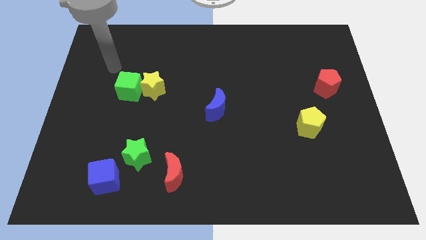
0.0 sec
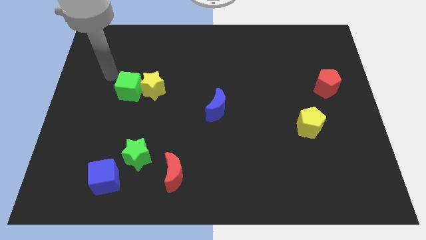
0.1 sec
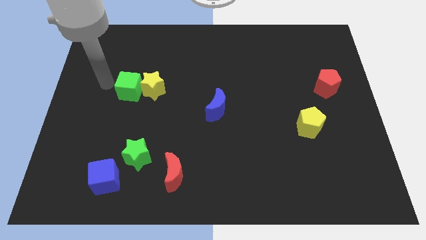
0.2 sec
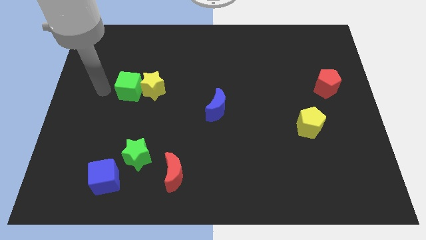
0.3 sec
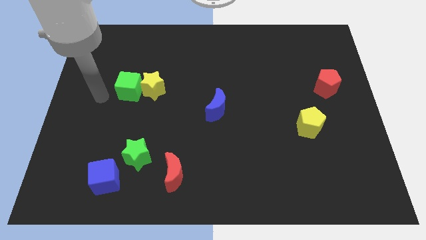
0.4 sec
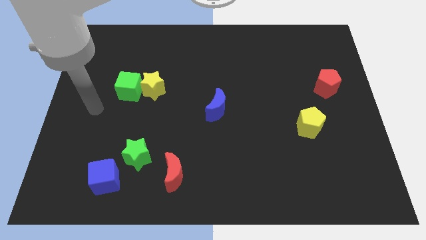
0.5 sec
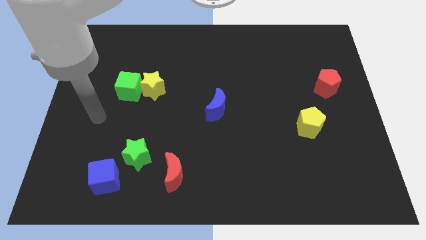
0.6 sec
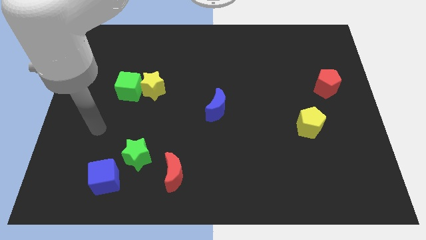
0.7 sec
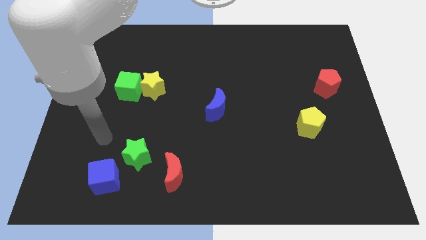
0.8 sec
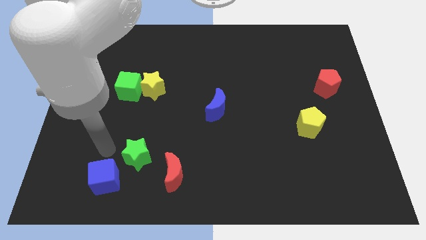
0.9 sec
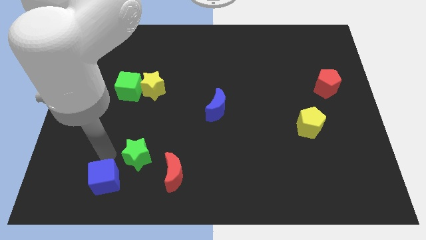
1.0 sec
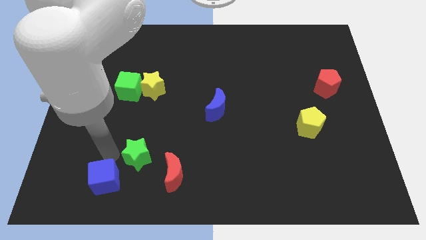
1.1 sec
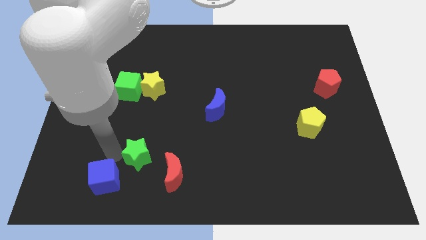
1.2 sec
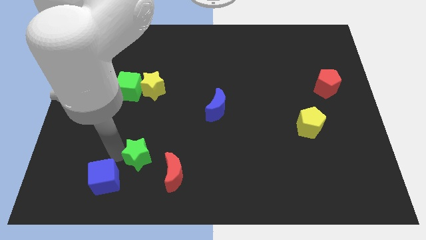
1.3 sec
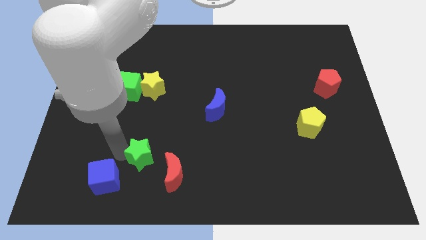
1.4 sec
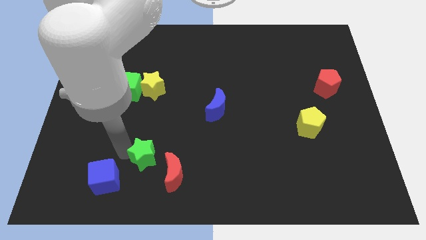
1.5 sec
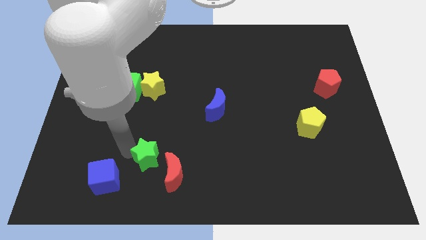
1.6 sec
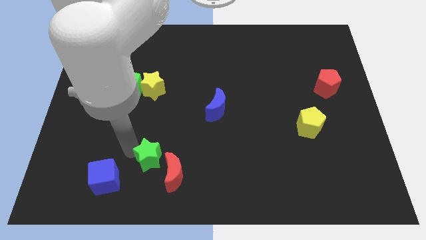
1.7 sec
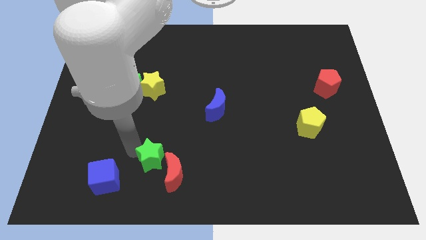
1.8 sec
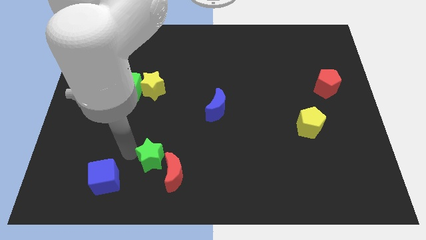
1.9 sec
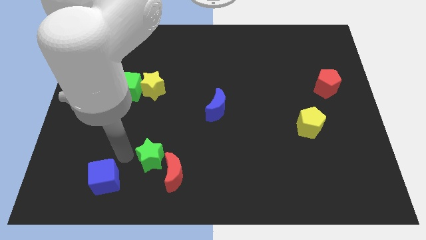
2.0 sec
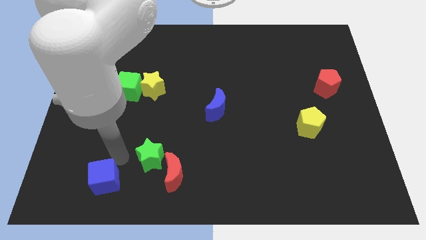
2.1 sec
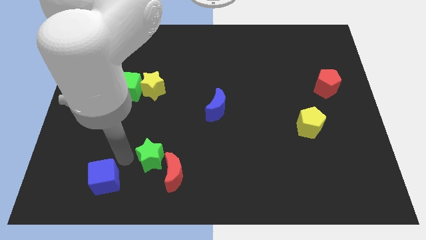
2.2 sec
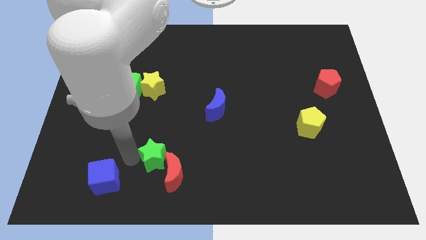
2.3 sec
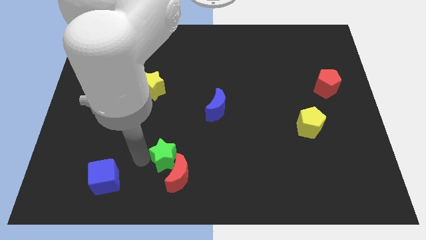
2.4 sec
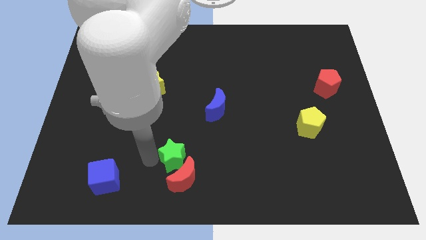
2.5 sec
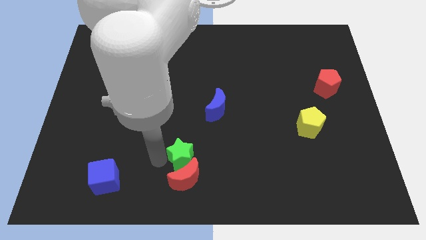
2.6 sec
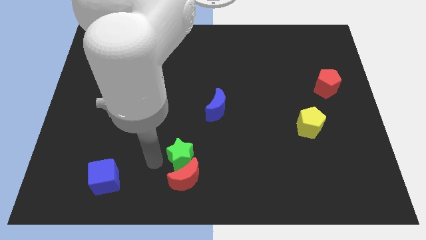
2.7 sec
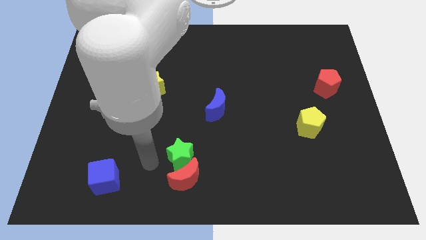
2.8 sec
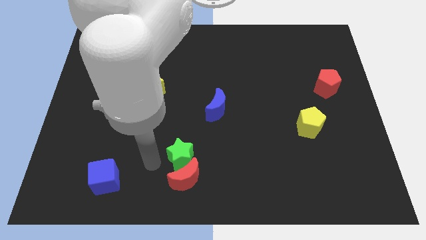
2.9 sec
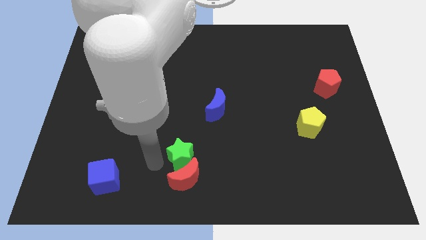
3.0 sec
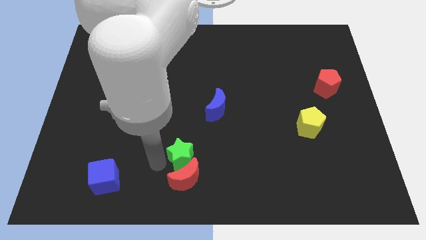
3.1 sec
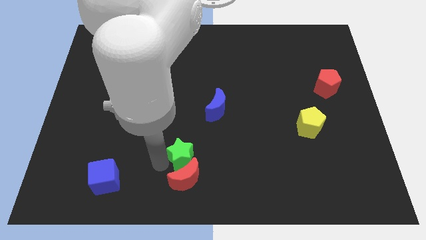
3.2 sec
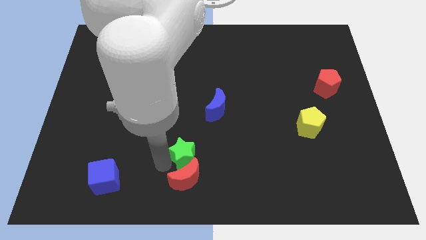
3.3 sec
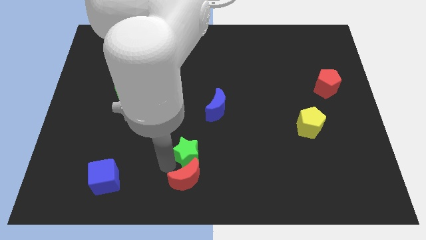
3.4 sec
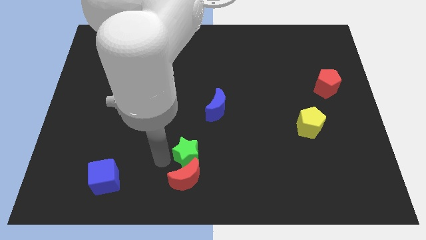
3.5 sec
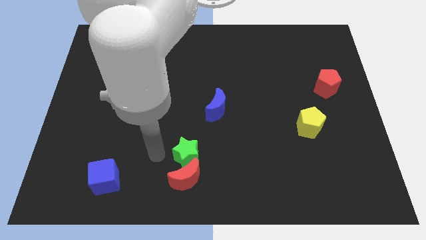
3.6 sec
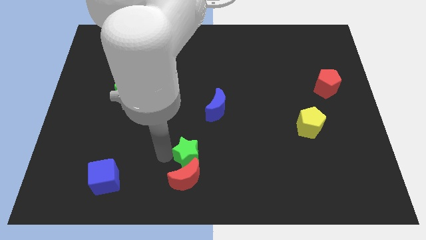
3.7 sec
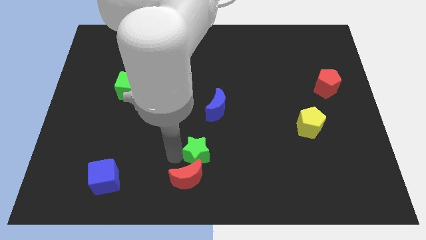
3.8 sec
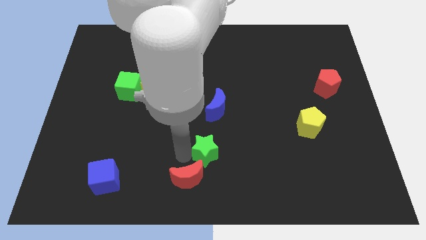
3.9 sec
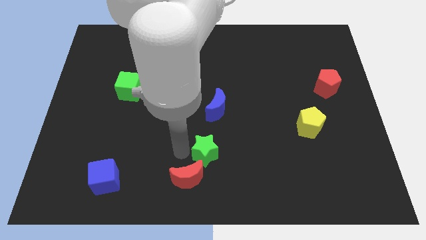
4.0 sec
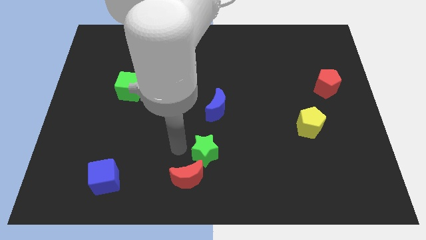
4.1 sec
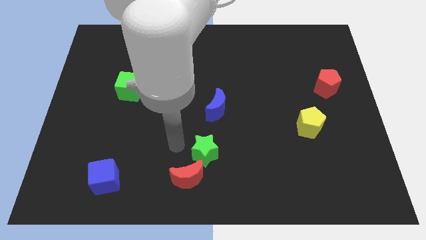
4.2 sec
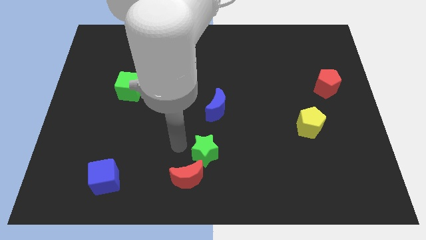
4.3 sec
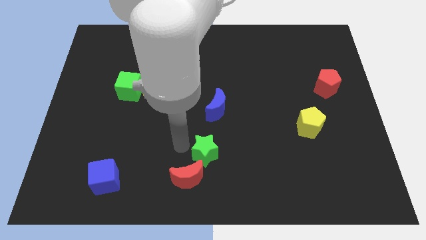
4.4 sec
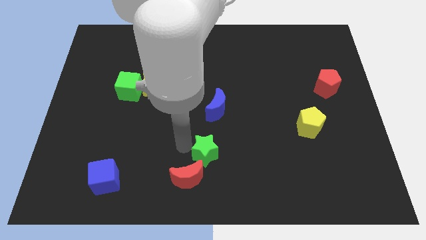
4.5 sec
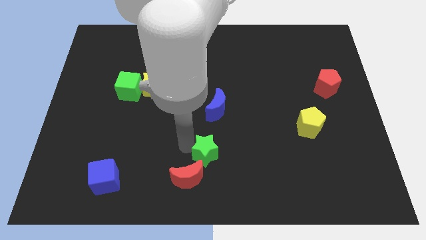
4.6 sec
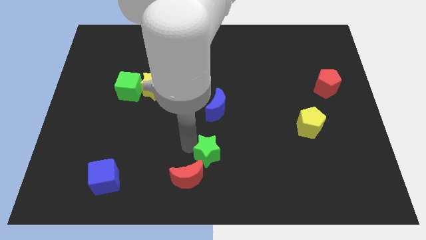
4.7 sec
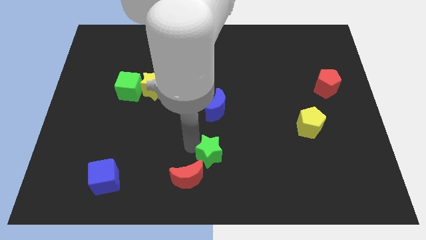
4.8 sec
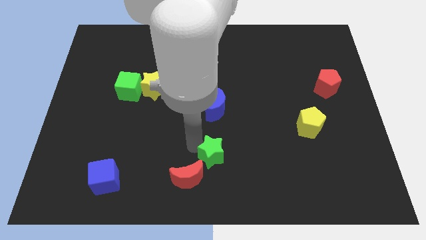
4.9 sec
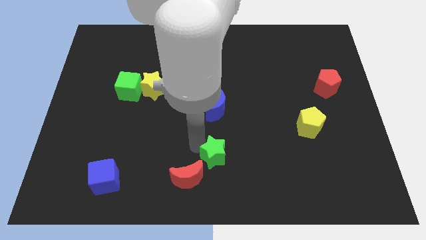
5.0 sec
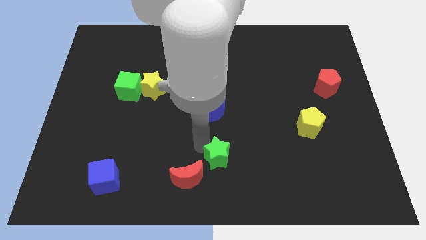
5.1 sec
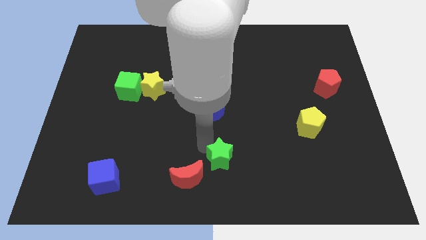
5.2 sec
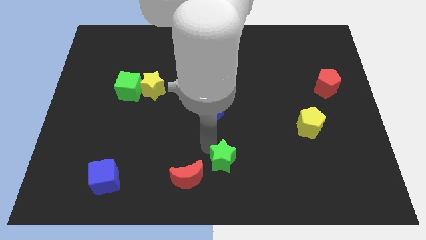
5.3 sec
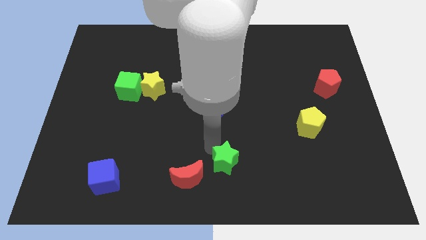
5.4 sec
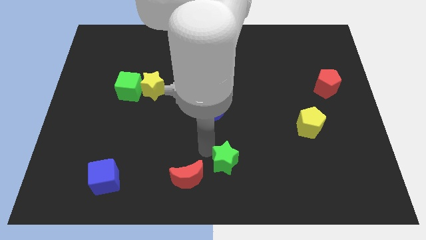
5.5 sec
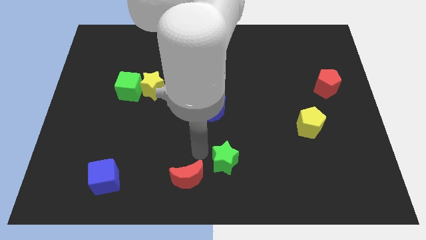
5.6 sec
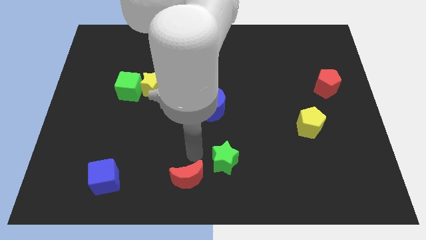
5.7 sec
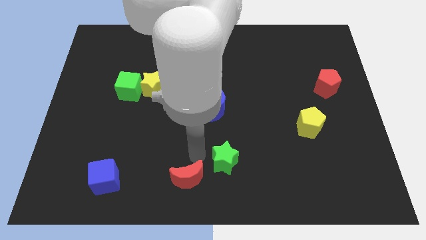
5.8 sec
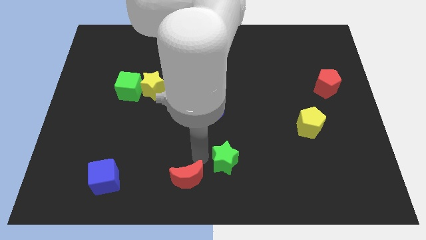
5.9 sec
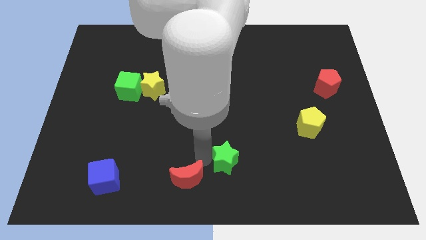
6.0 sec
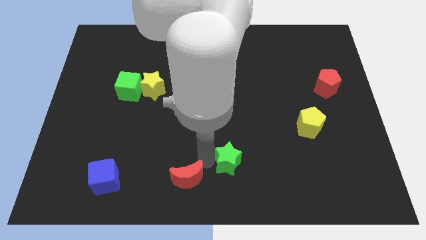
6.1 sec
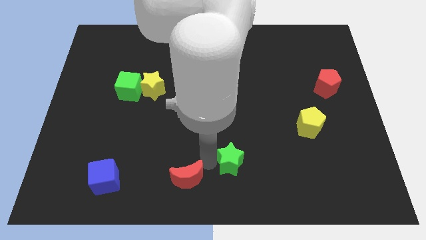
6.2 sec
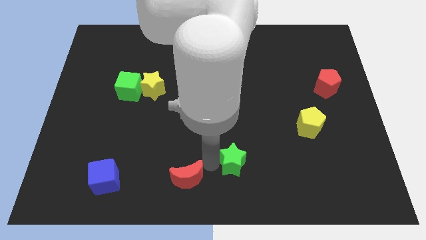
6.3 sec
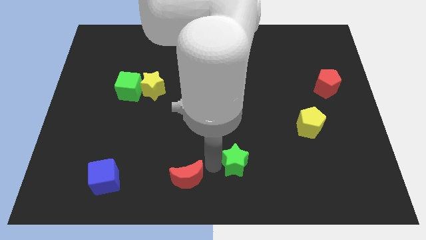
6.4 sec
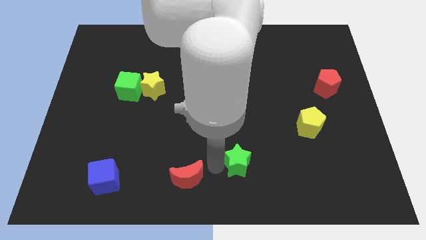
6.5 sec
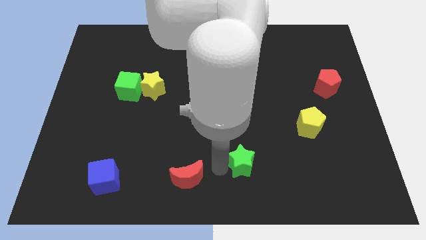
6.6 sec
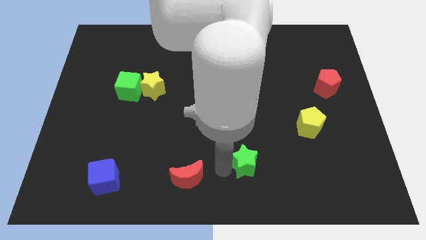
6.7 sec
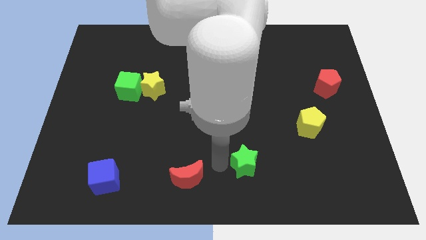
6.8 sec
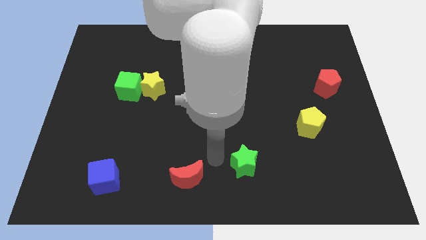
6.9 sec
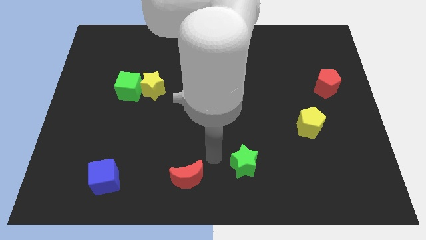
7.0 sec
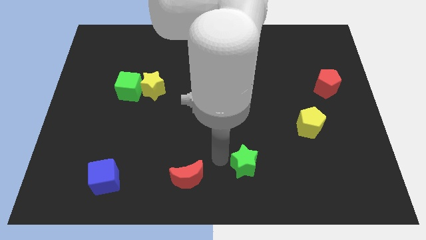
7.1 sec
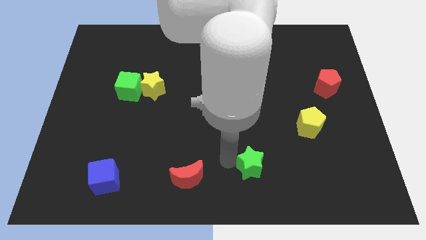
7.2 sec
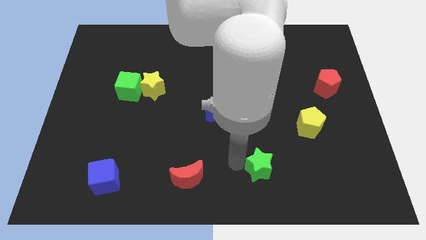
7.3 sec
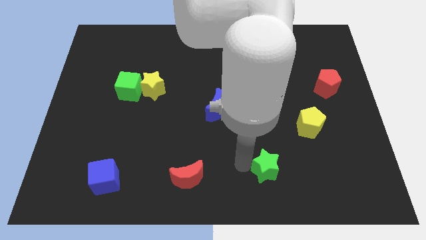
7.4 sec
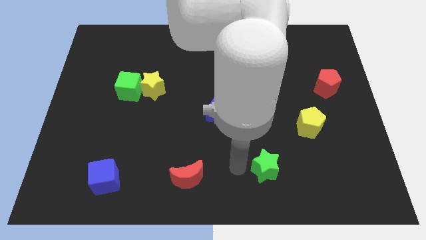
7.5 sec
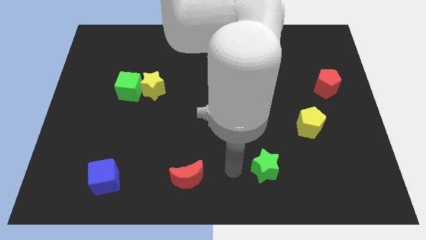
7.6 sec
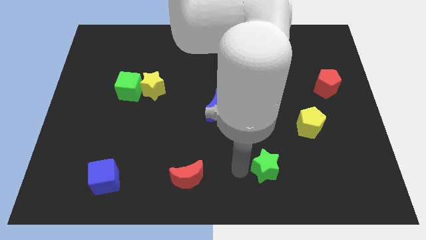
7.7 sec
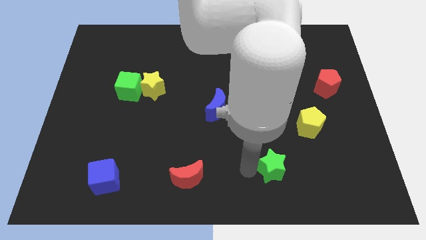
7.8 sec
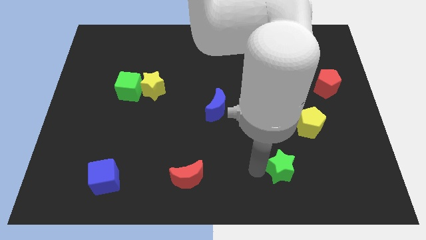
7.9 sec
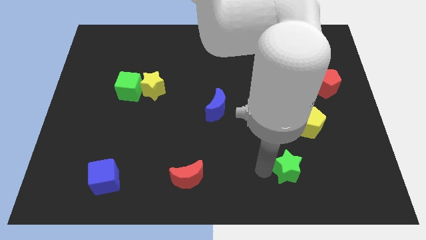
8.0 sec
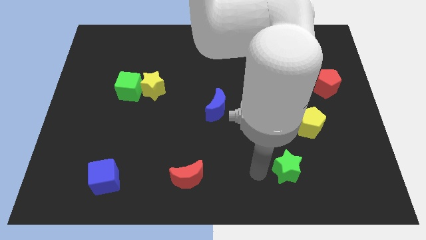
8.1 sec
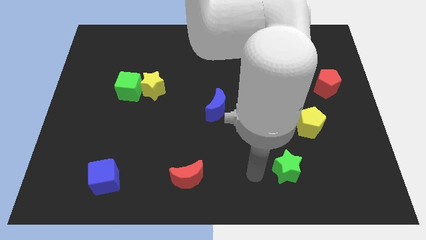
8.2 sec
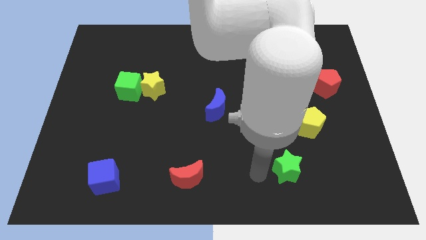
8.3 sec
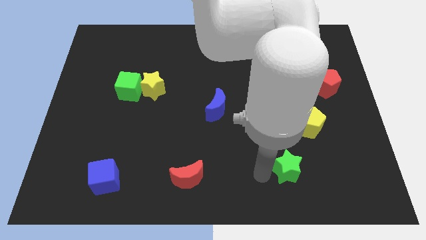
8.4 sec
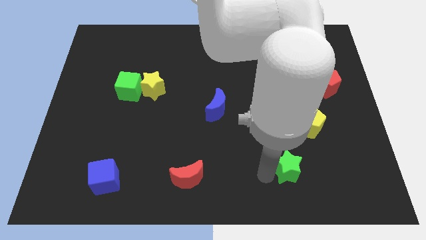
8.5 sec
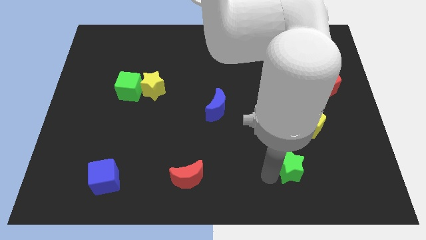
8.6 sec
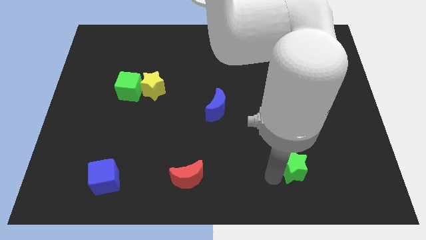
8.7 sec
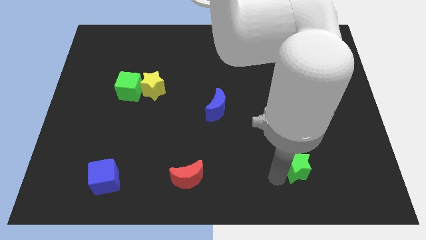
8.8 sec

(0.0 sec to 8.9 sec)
push the green star to the bottom of the yellow pentagon
